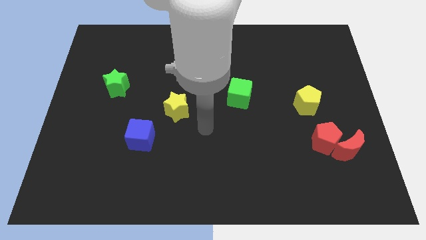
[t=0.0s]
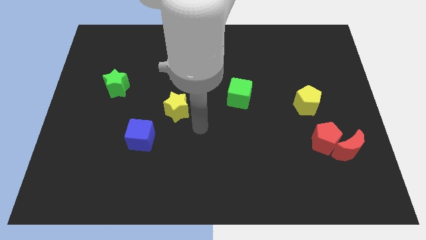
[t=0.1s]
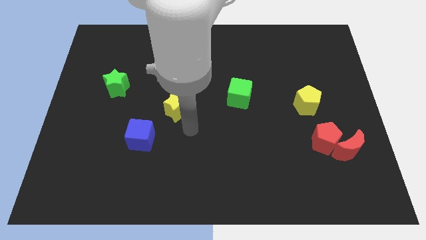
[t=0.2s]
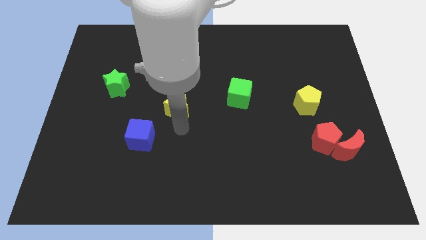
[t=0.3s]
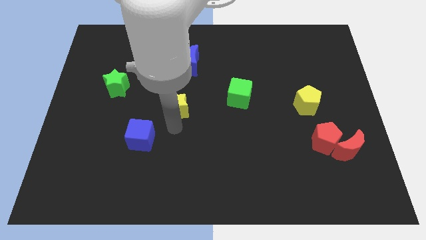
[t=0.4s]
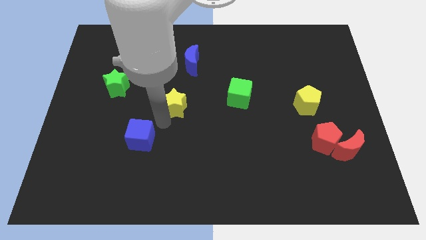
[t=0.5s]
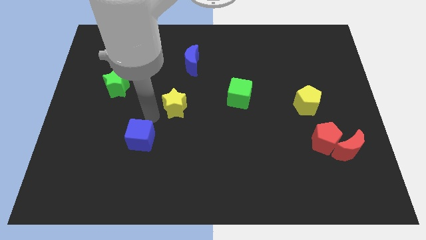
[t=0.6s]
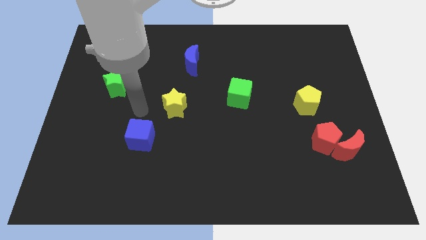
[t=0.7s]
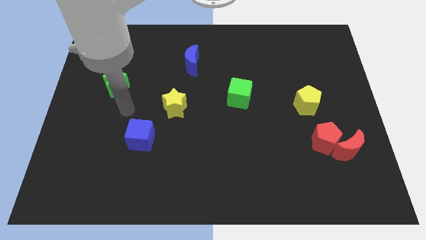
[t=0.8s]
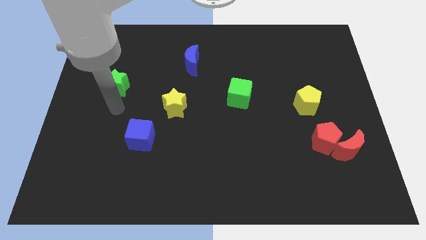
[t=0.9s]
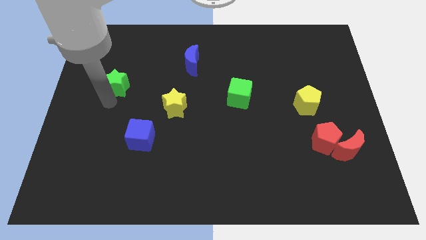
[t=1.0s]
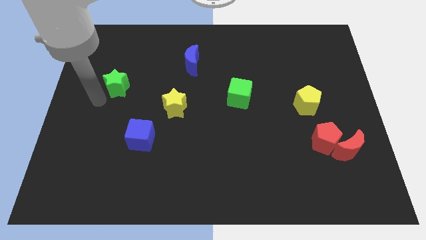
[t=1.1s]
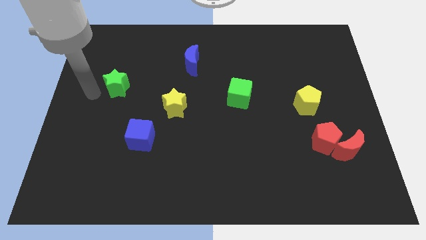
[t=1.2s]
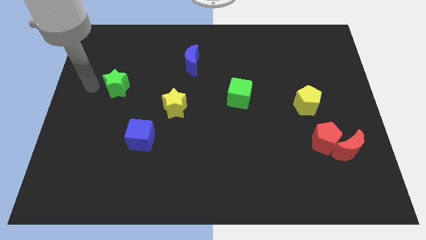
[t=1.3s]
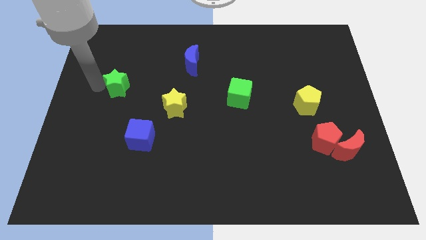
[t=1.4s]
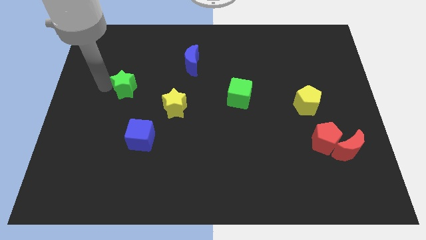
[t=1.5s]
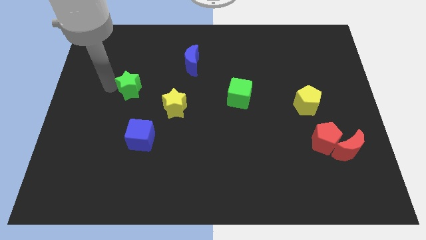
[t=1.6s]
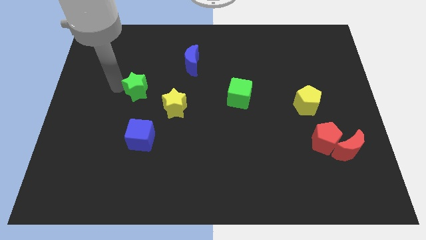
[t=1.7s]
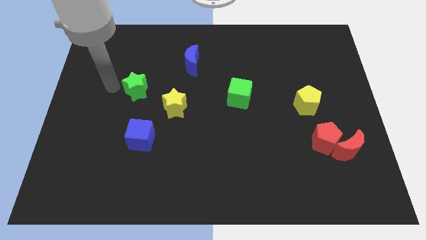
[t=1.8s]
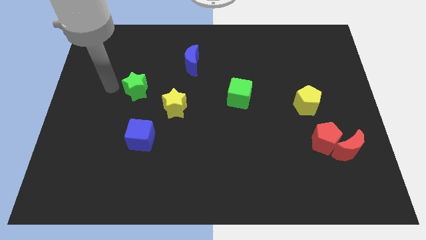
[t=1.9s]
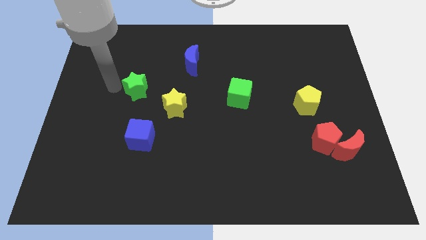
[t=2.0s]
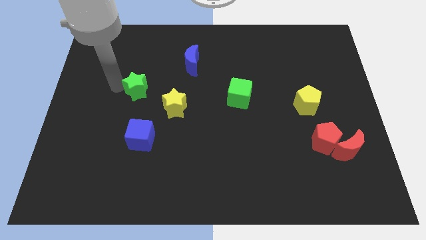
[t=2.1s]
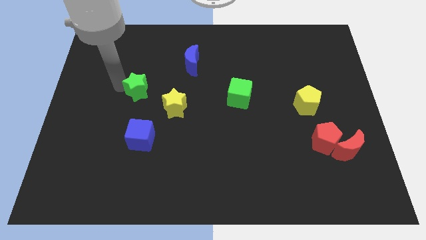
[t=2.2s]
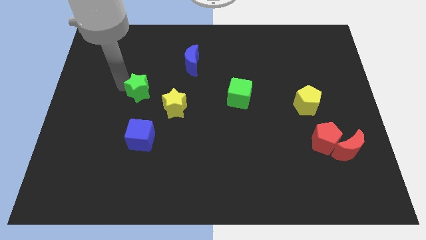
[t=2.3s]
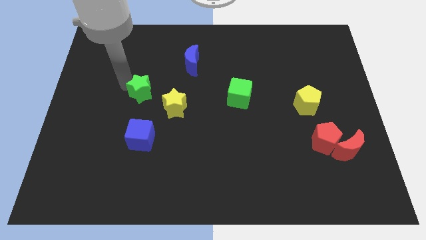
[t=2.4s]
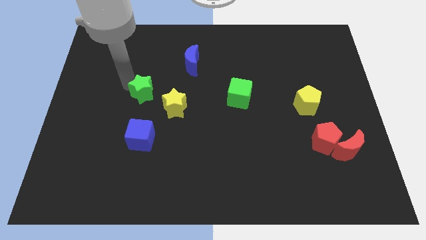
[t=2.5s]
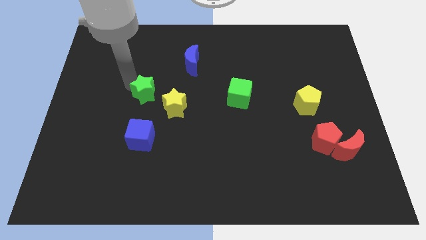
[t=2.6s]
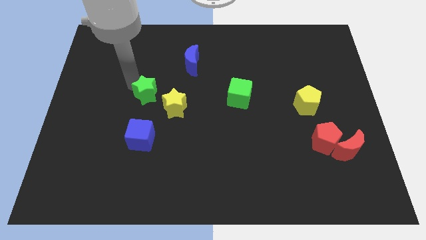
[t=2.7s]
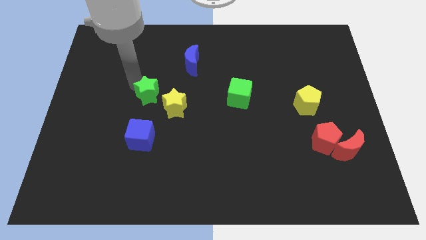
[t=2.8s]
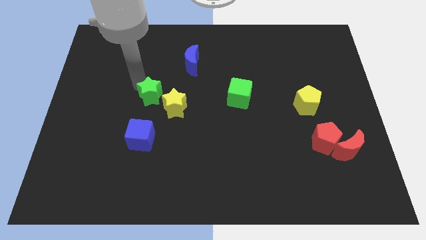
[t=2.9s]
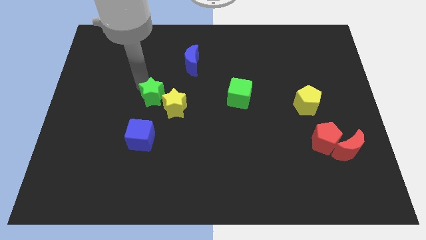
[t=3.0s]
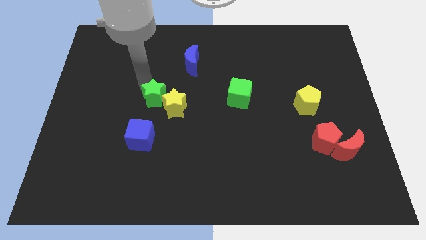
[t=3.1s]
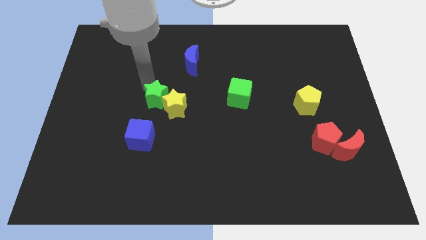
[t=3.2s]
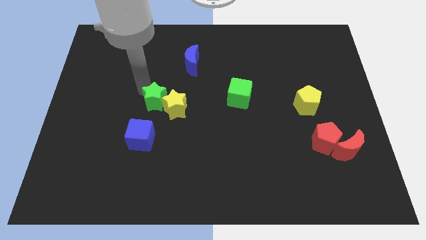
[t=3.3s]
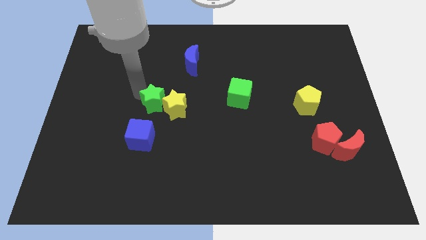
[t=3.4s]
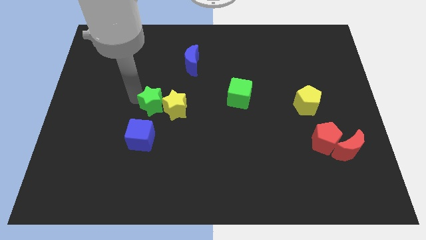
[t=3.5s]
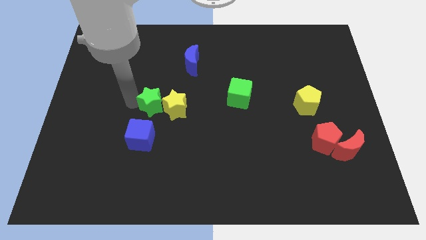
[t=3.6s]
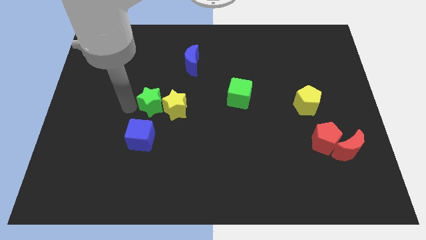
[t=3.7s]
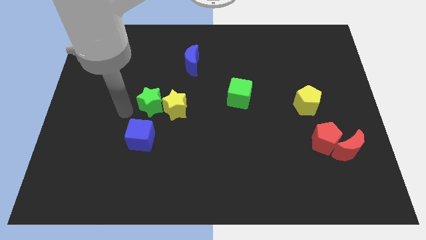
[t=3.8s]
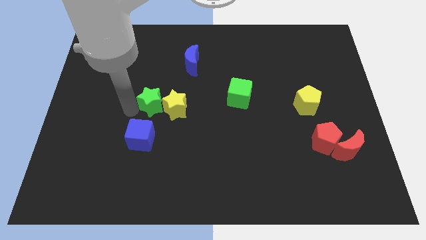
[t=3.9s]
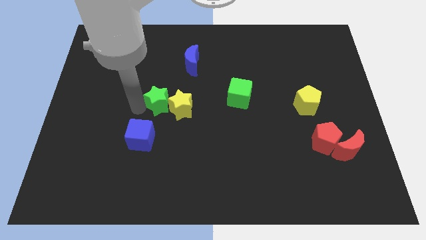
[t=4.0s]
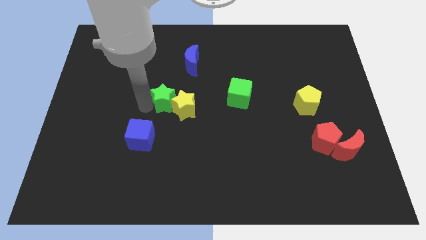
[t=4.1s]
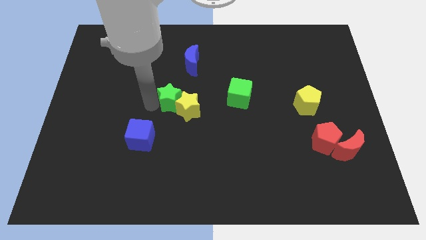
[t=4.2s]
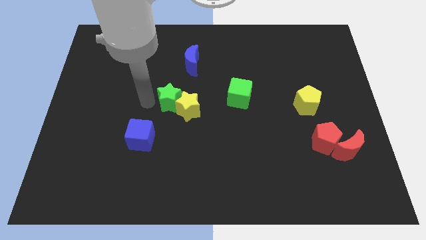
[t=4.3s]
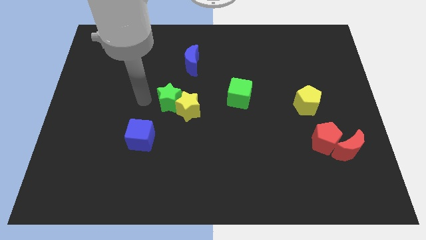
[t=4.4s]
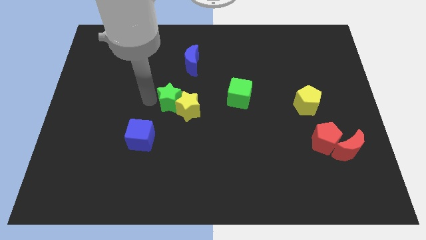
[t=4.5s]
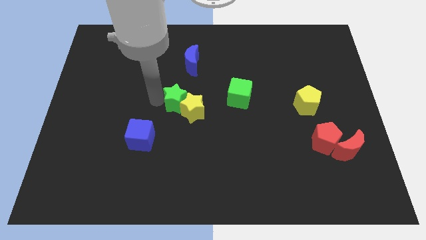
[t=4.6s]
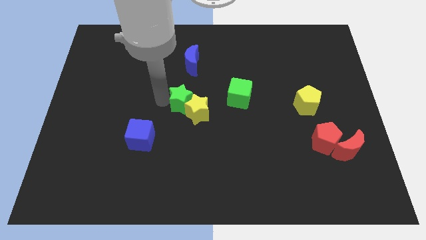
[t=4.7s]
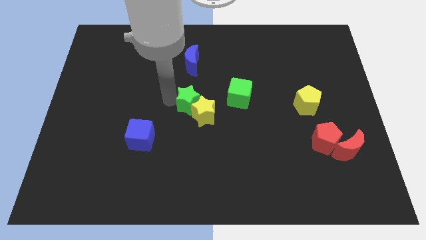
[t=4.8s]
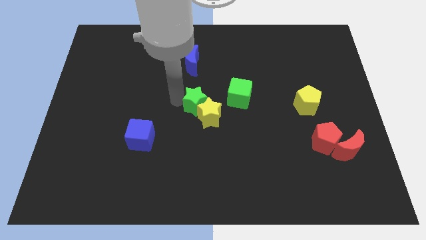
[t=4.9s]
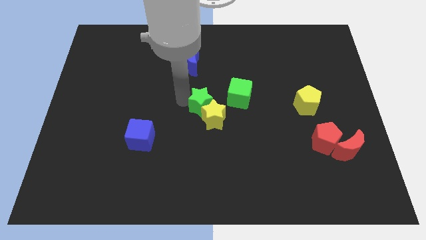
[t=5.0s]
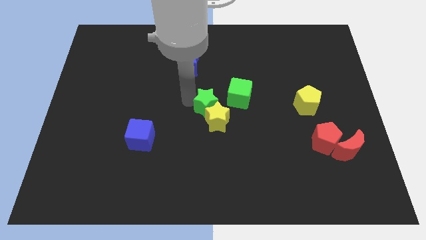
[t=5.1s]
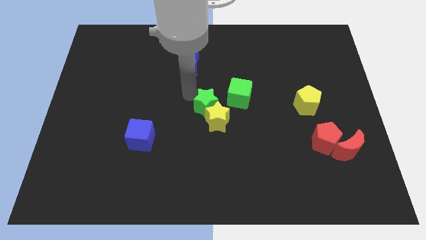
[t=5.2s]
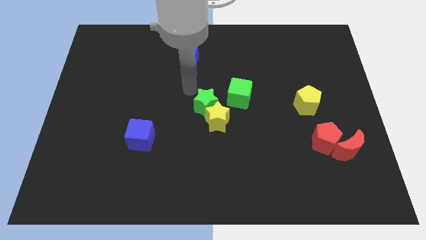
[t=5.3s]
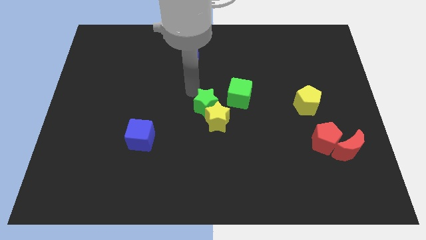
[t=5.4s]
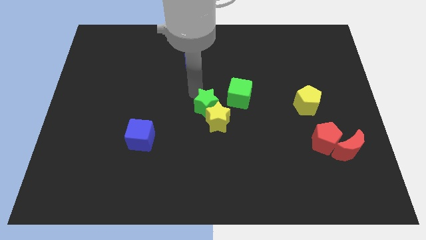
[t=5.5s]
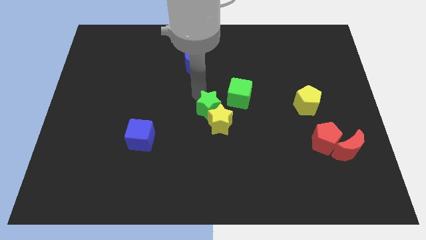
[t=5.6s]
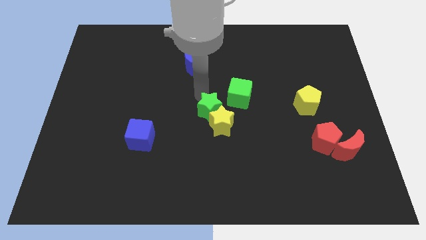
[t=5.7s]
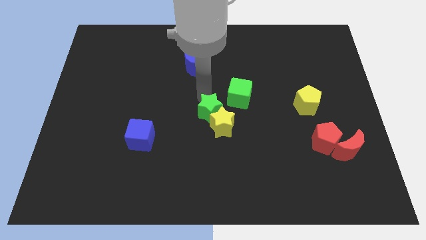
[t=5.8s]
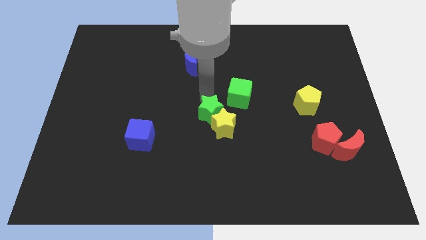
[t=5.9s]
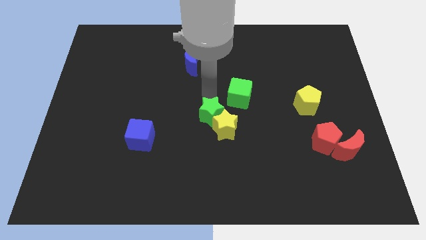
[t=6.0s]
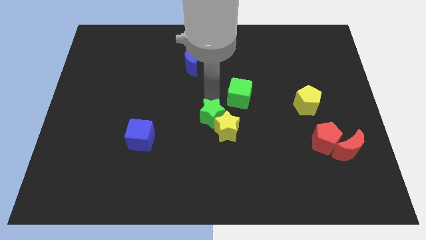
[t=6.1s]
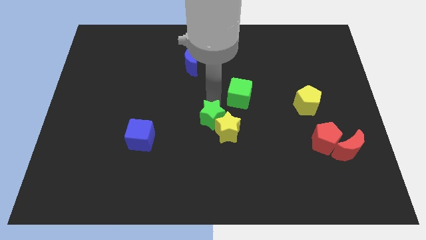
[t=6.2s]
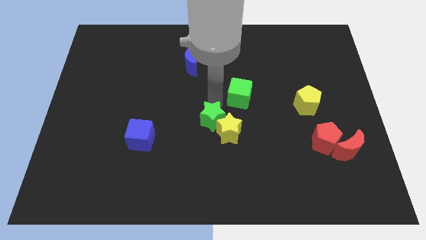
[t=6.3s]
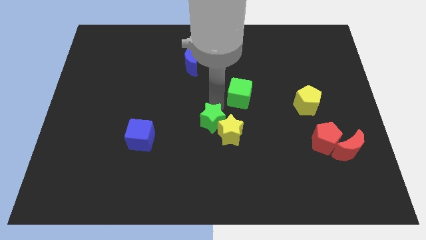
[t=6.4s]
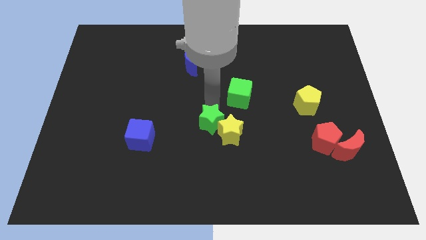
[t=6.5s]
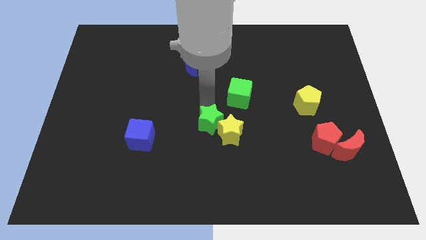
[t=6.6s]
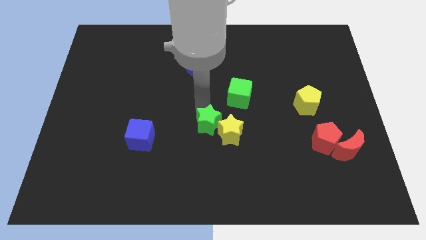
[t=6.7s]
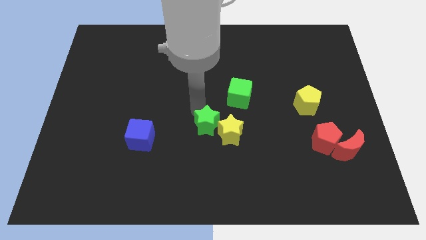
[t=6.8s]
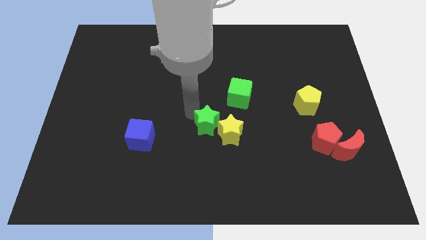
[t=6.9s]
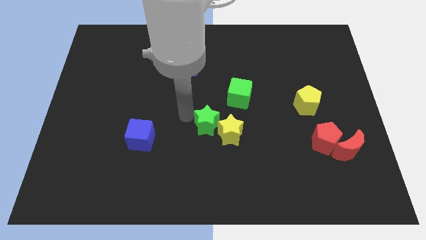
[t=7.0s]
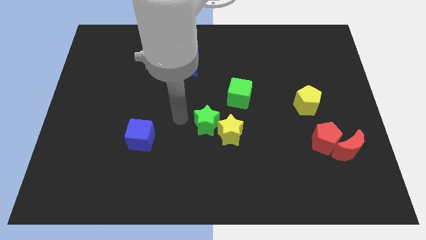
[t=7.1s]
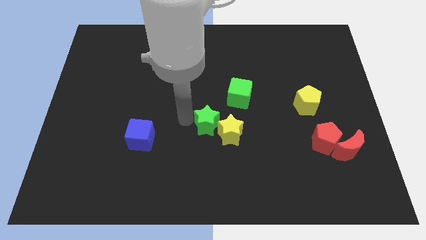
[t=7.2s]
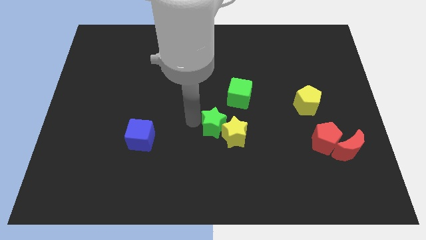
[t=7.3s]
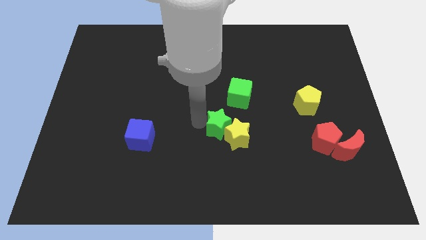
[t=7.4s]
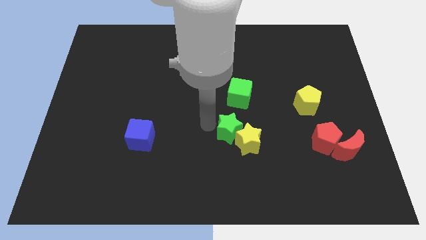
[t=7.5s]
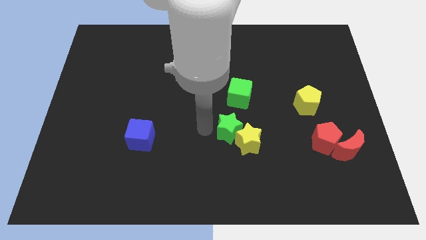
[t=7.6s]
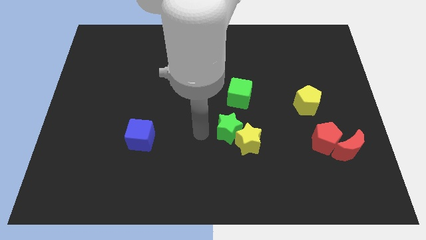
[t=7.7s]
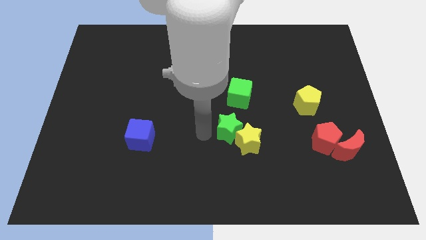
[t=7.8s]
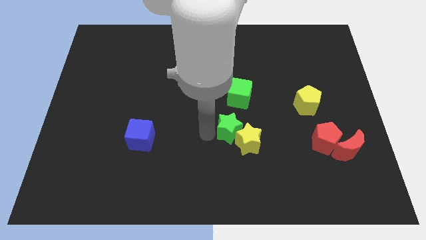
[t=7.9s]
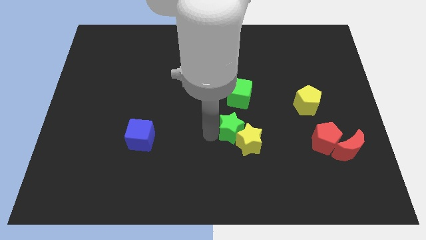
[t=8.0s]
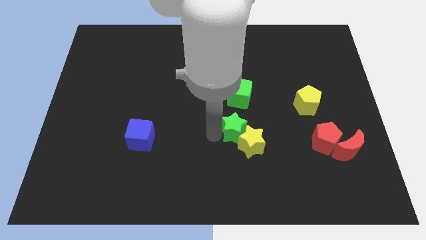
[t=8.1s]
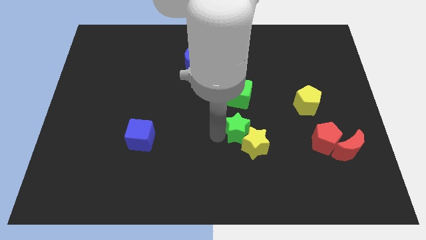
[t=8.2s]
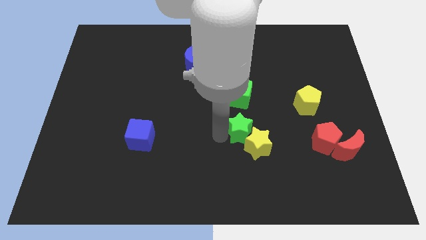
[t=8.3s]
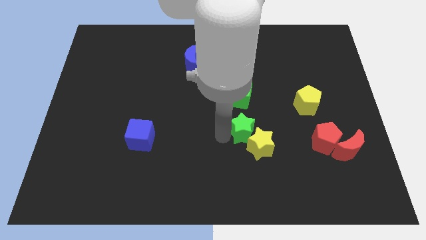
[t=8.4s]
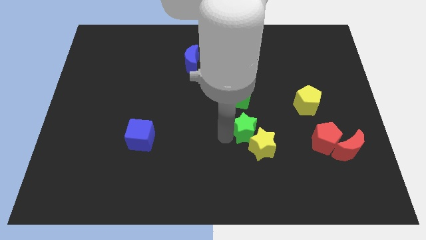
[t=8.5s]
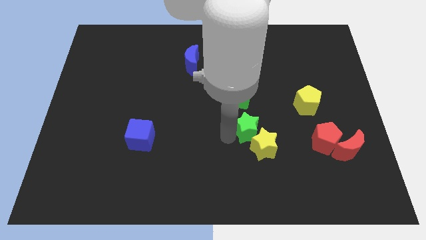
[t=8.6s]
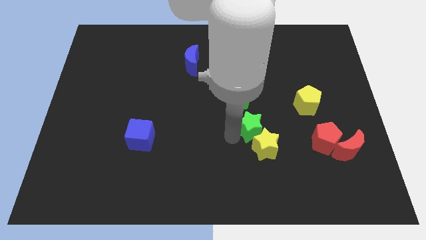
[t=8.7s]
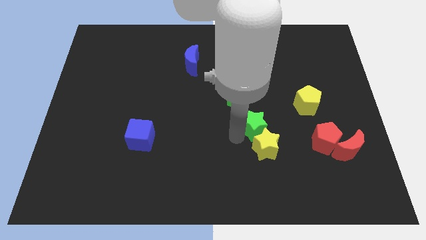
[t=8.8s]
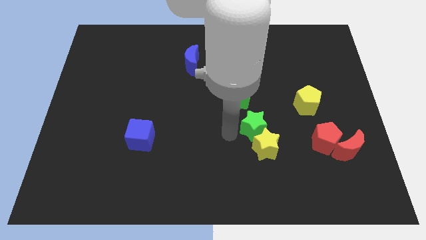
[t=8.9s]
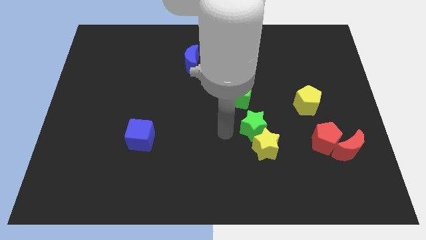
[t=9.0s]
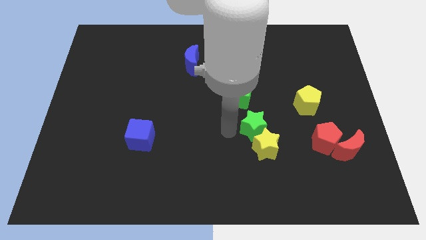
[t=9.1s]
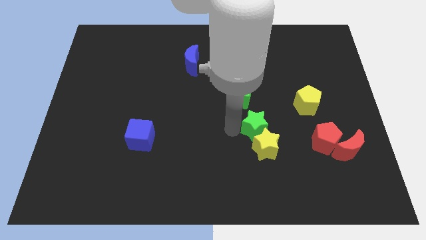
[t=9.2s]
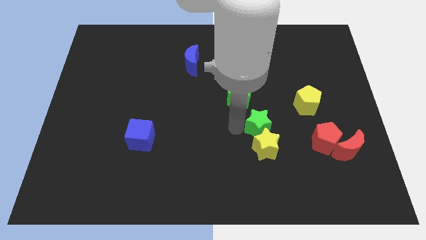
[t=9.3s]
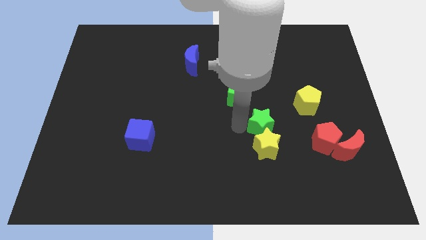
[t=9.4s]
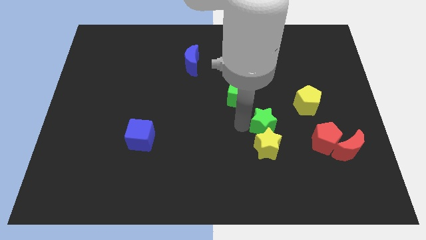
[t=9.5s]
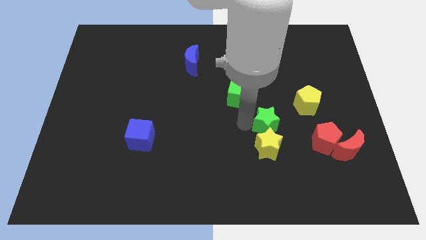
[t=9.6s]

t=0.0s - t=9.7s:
push the green star diagonally down and to the left of the yellow pentagon
